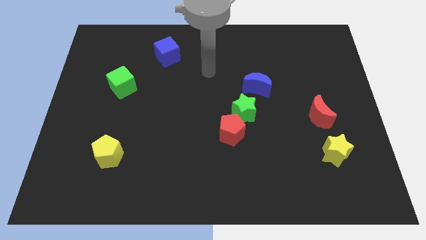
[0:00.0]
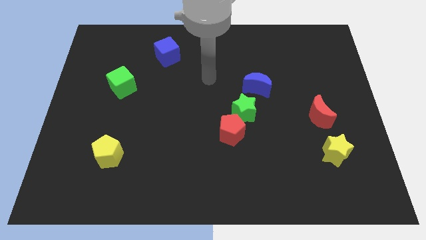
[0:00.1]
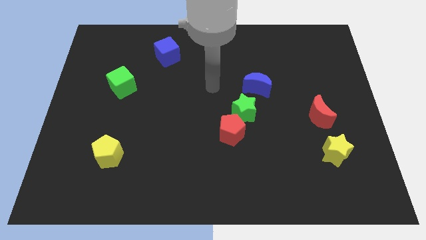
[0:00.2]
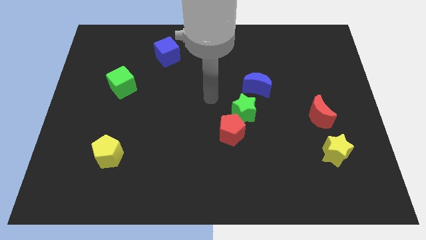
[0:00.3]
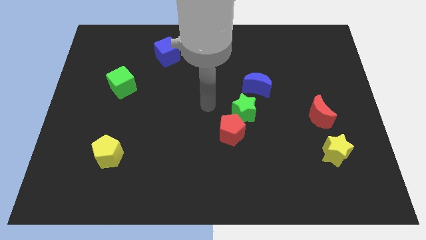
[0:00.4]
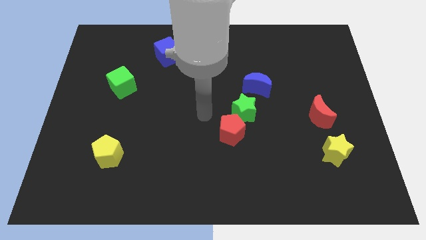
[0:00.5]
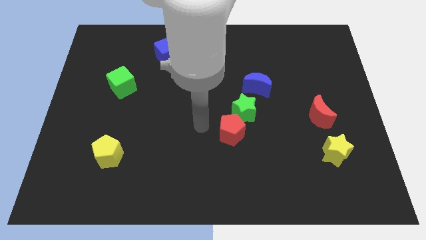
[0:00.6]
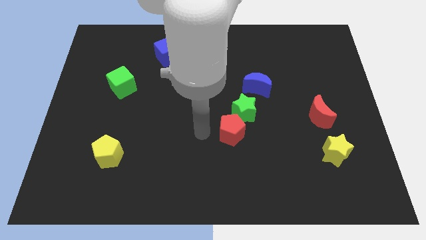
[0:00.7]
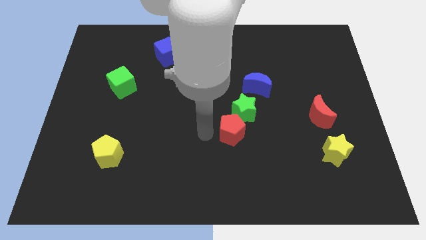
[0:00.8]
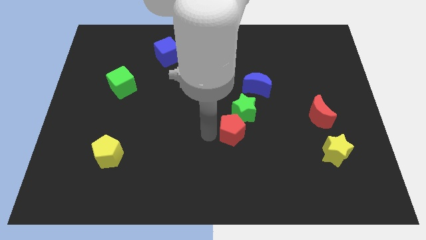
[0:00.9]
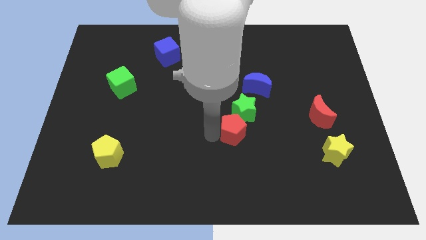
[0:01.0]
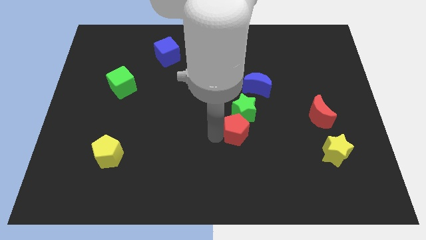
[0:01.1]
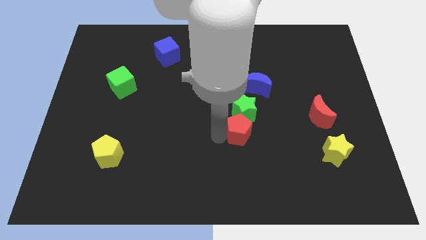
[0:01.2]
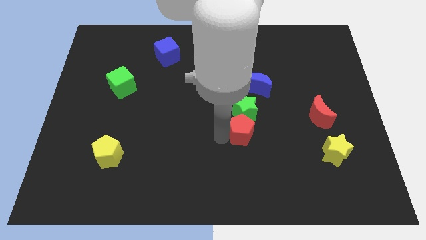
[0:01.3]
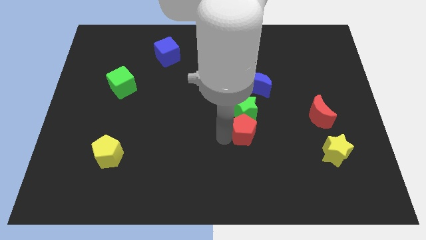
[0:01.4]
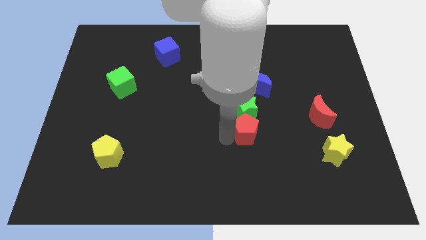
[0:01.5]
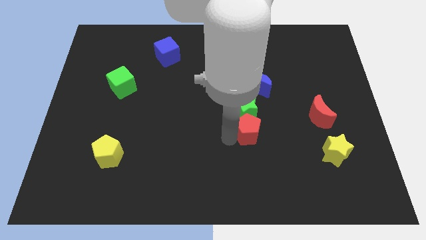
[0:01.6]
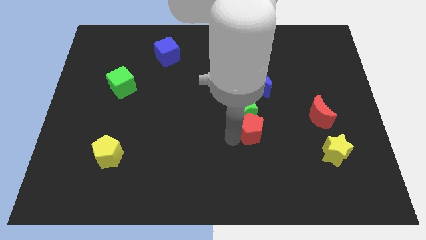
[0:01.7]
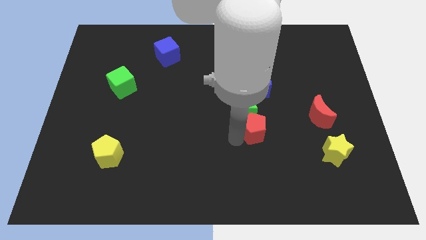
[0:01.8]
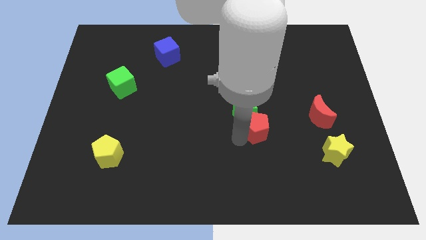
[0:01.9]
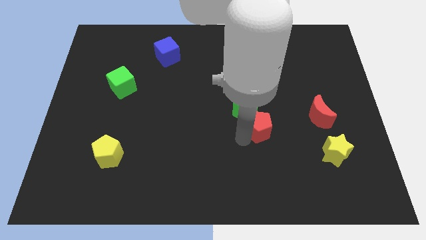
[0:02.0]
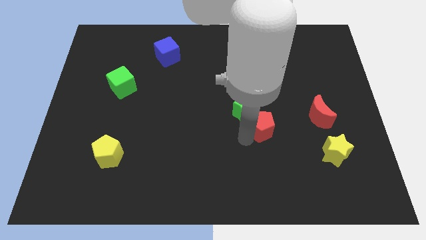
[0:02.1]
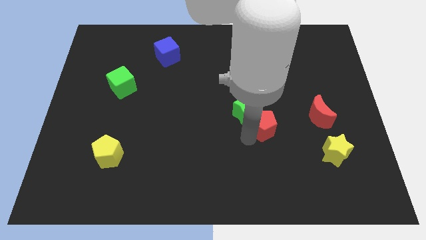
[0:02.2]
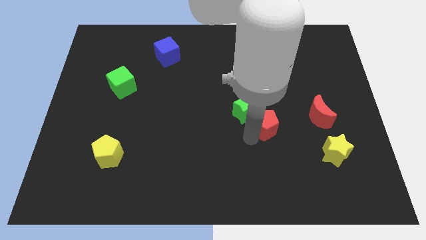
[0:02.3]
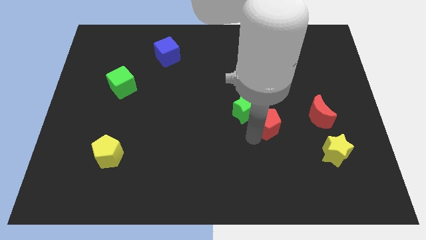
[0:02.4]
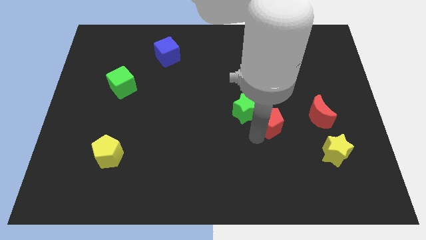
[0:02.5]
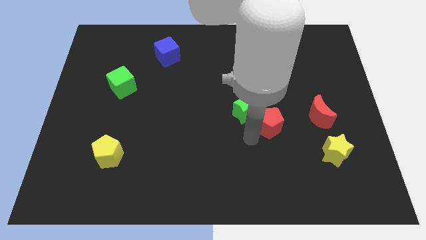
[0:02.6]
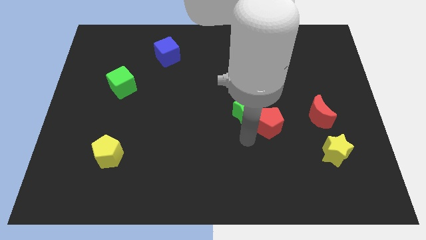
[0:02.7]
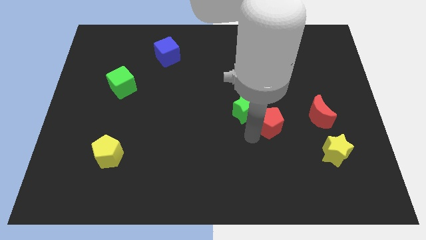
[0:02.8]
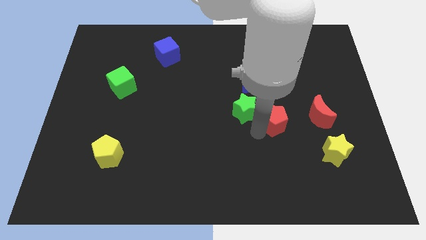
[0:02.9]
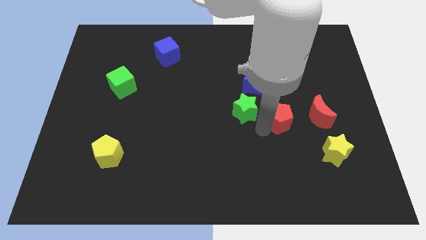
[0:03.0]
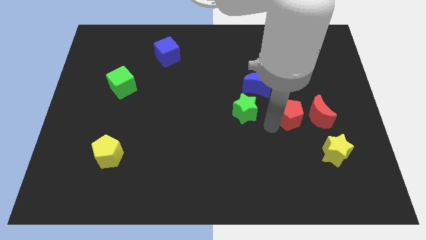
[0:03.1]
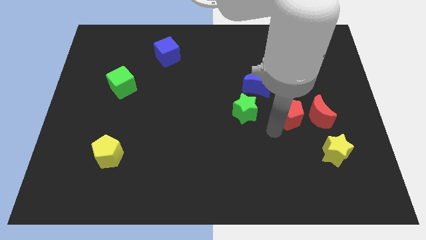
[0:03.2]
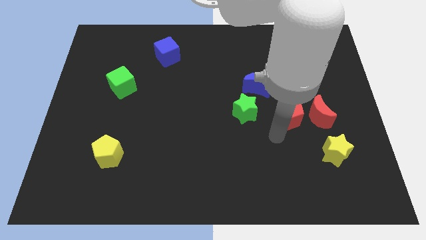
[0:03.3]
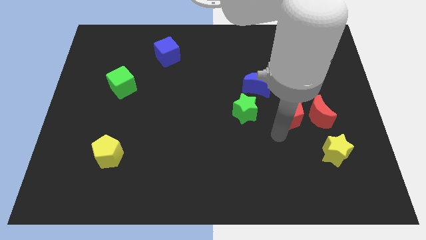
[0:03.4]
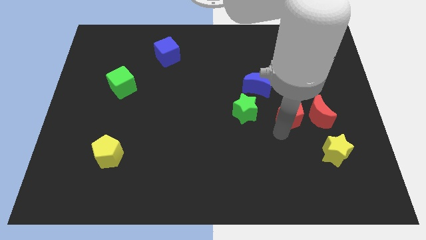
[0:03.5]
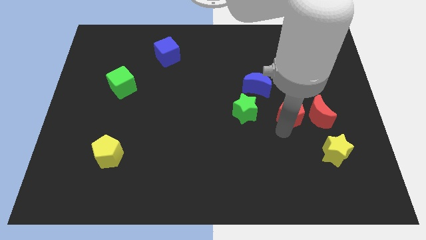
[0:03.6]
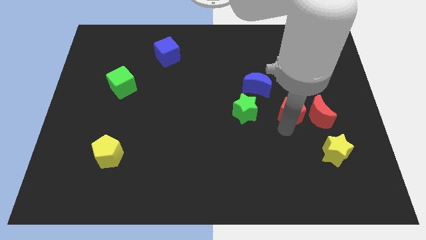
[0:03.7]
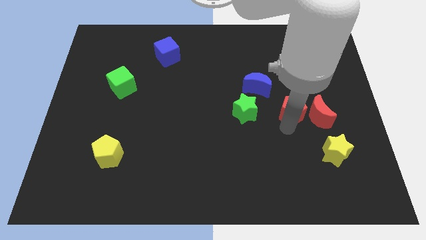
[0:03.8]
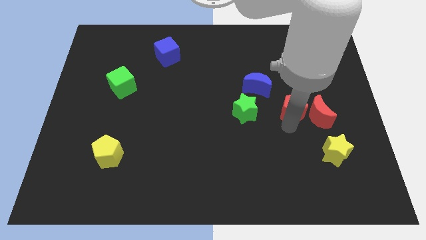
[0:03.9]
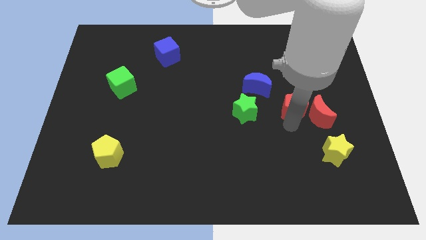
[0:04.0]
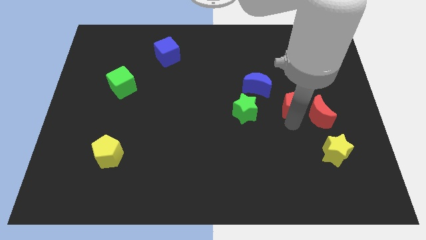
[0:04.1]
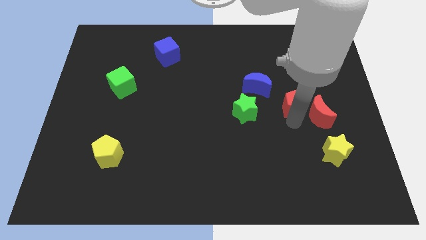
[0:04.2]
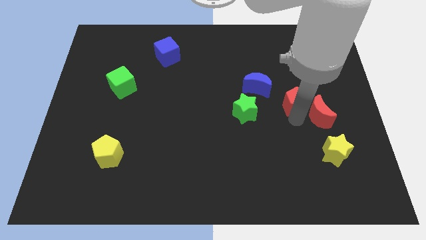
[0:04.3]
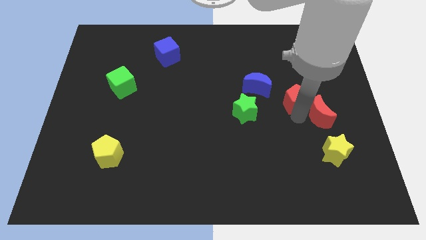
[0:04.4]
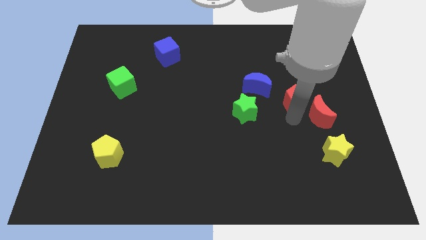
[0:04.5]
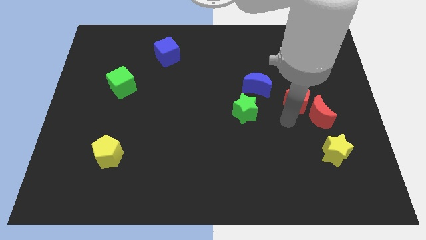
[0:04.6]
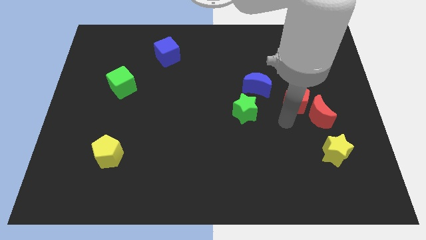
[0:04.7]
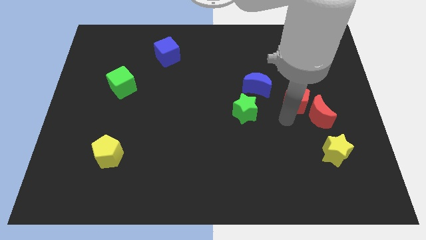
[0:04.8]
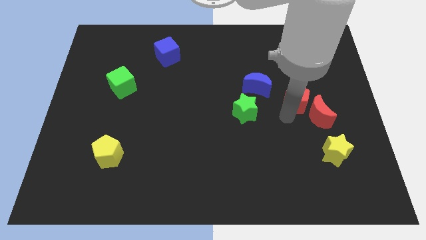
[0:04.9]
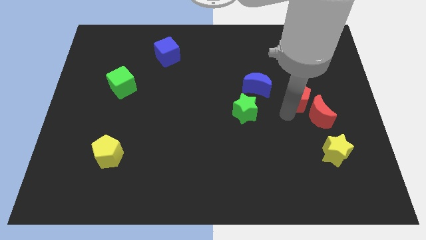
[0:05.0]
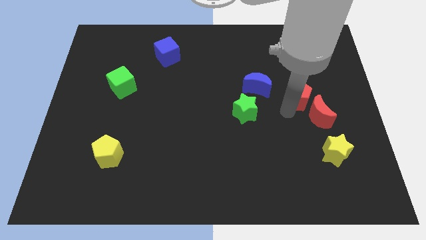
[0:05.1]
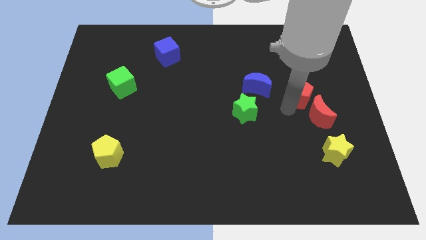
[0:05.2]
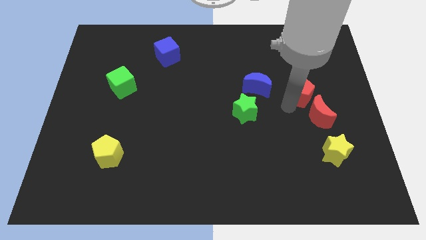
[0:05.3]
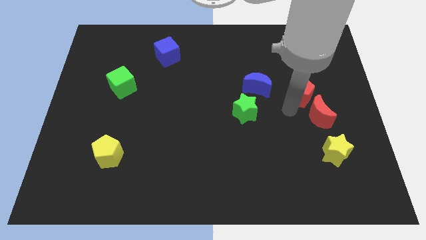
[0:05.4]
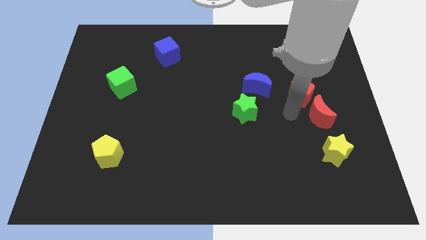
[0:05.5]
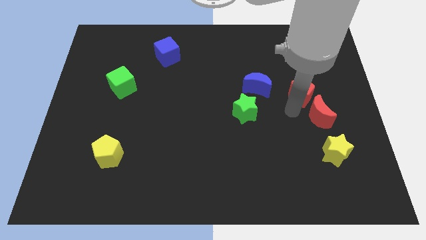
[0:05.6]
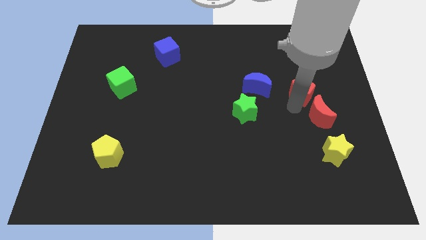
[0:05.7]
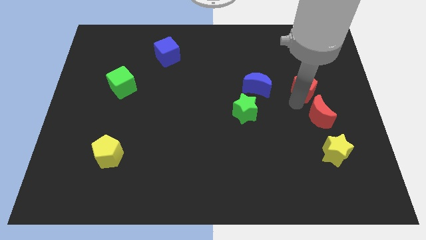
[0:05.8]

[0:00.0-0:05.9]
slide the red pentagon upwards and to the right diagonally

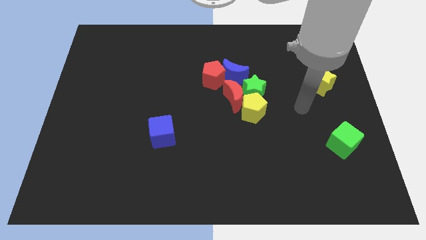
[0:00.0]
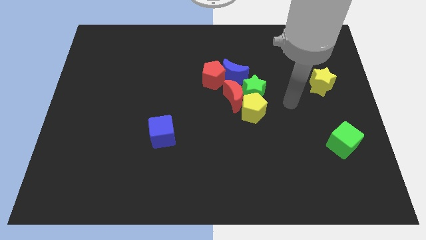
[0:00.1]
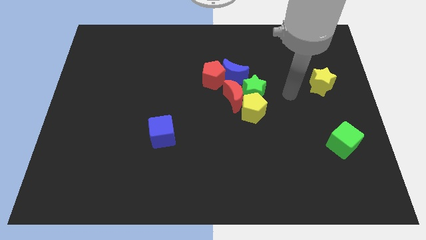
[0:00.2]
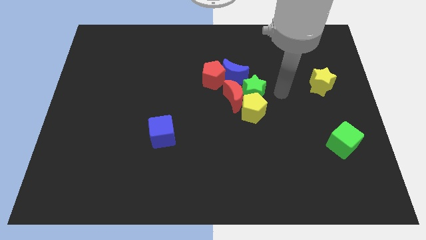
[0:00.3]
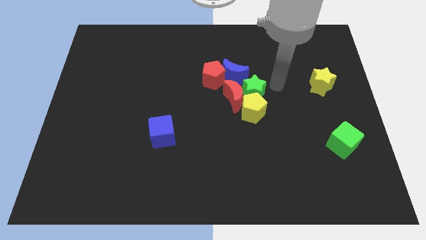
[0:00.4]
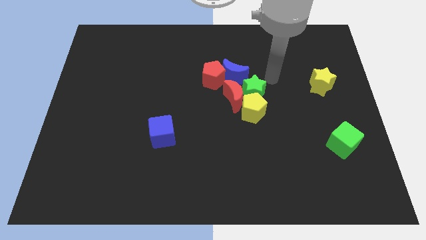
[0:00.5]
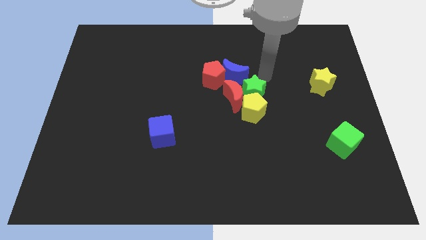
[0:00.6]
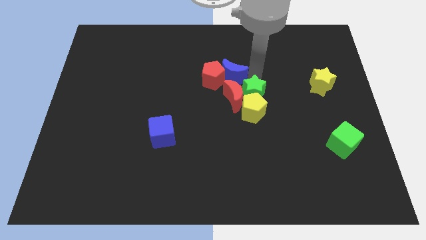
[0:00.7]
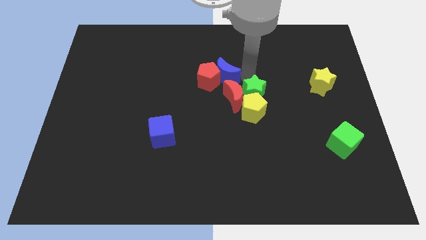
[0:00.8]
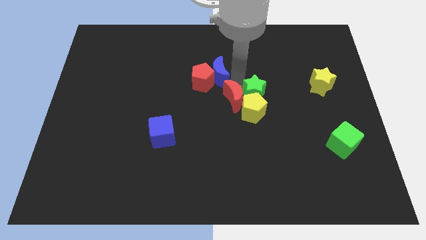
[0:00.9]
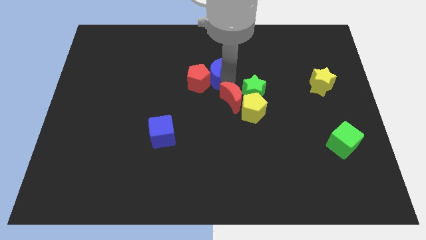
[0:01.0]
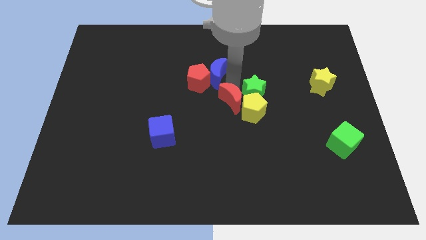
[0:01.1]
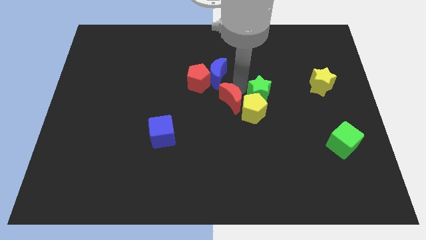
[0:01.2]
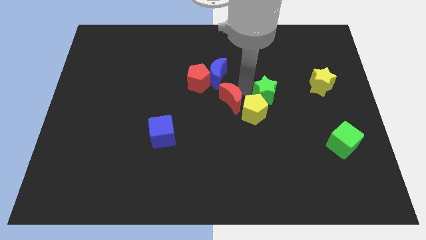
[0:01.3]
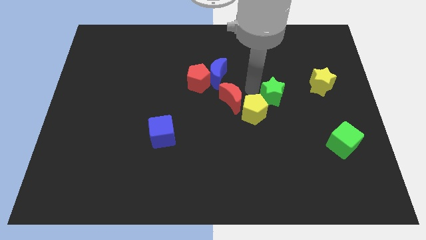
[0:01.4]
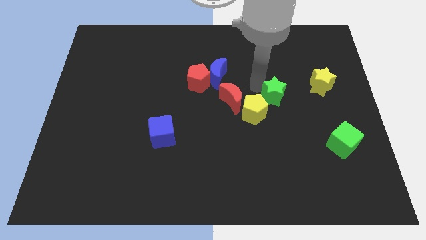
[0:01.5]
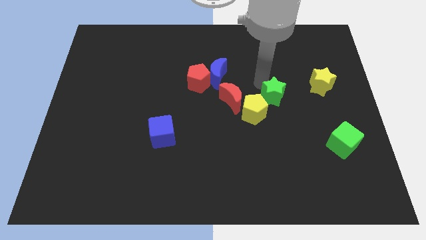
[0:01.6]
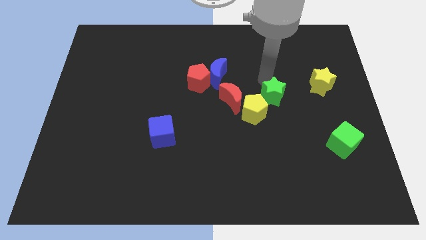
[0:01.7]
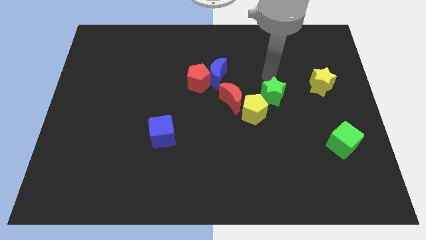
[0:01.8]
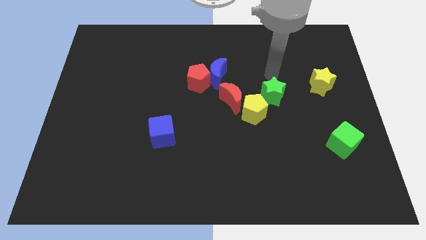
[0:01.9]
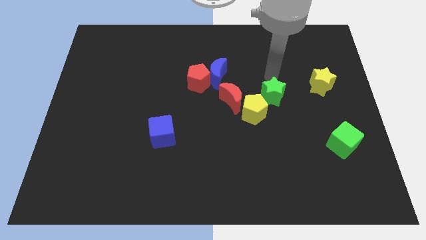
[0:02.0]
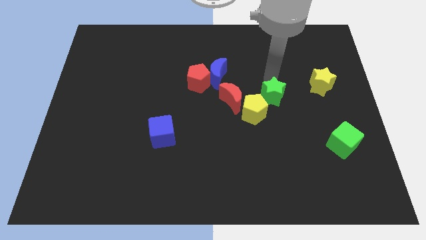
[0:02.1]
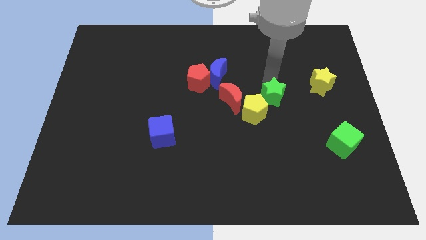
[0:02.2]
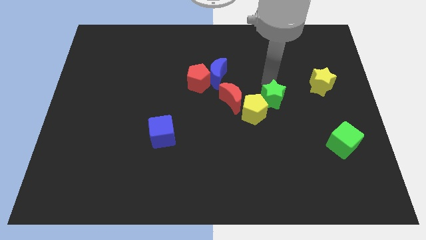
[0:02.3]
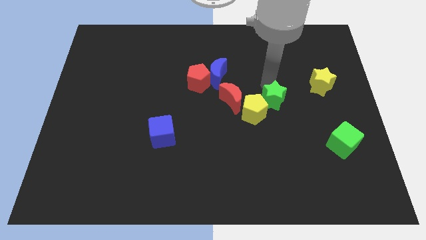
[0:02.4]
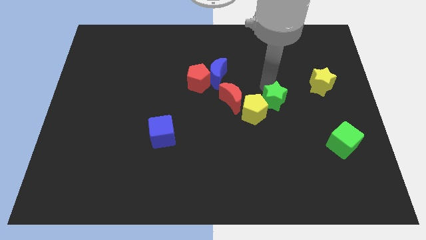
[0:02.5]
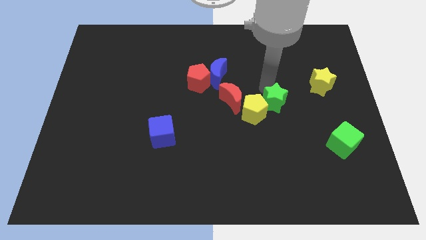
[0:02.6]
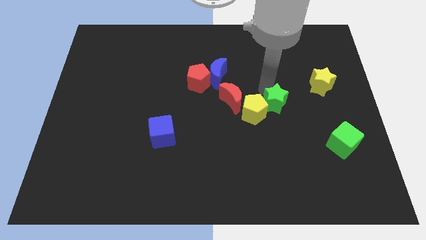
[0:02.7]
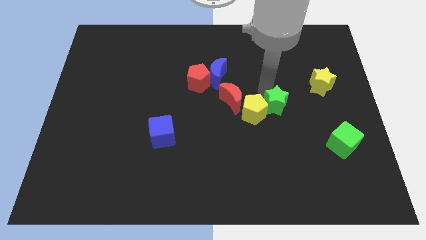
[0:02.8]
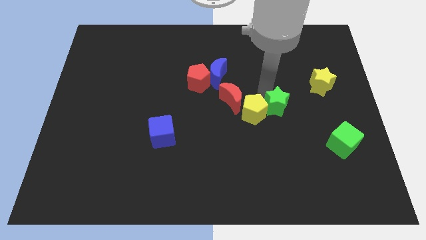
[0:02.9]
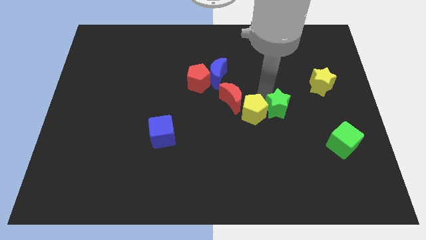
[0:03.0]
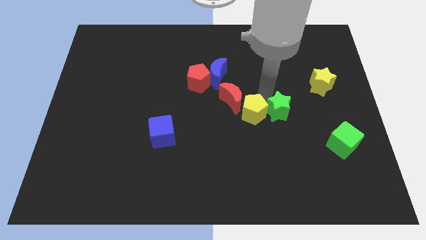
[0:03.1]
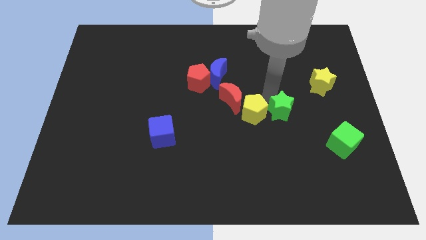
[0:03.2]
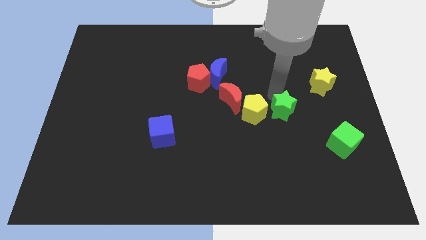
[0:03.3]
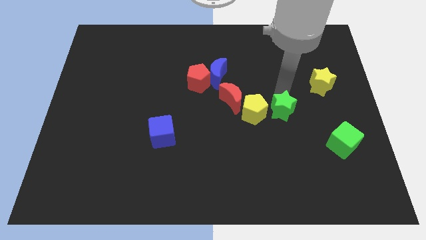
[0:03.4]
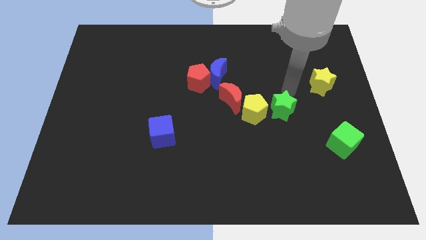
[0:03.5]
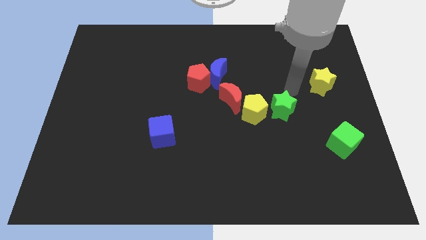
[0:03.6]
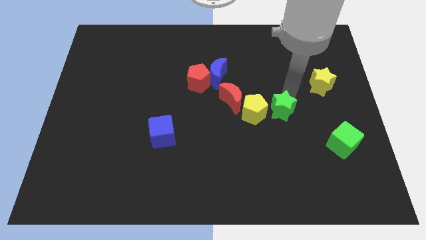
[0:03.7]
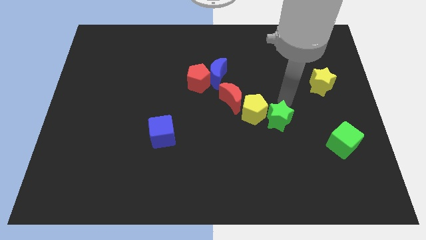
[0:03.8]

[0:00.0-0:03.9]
slide the green star somewhat down
